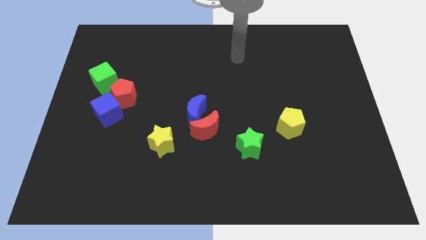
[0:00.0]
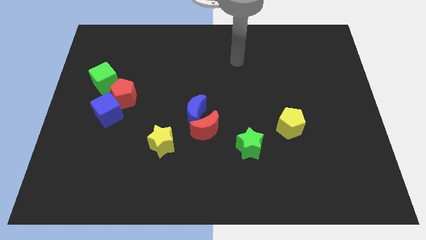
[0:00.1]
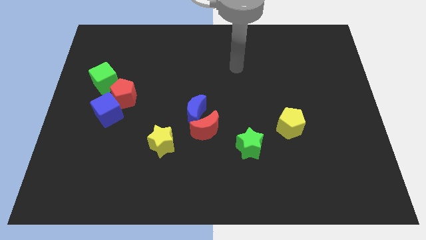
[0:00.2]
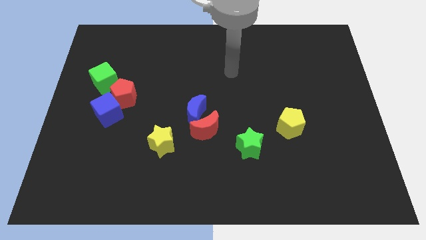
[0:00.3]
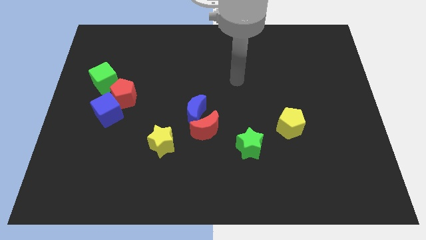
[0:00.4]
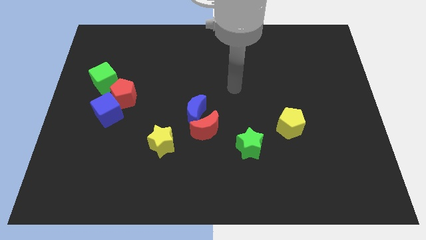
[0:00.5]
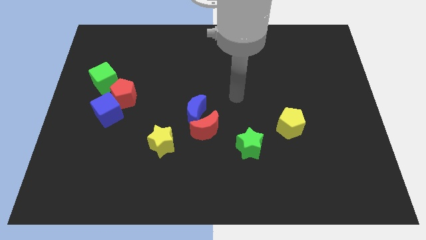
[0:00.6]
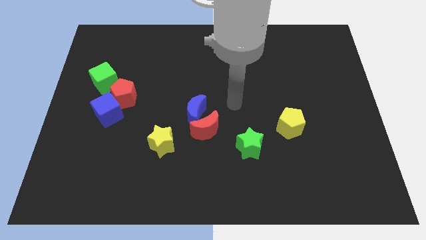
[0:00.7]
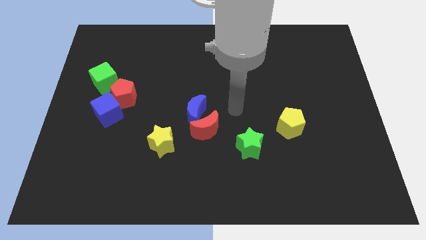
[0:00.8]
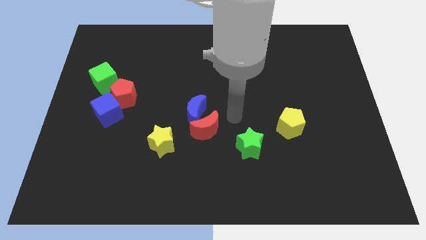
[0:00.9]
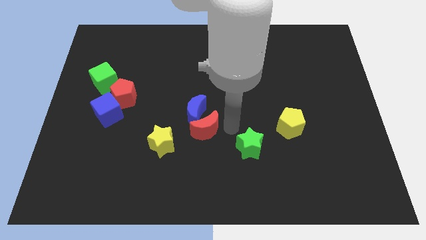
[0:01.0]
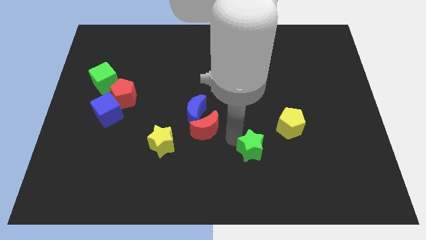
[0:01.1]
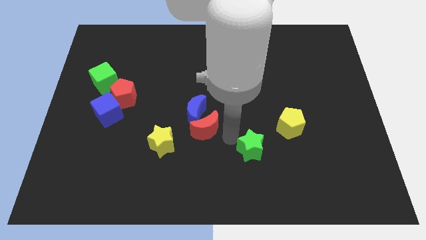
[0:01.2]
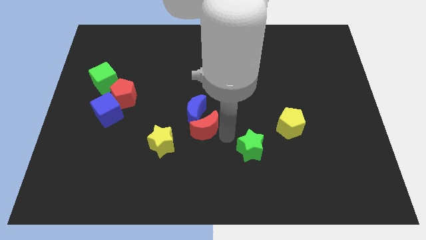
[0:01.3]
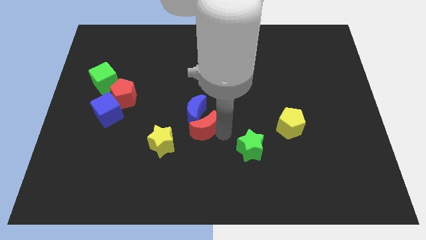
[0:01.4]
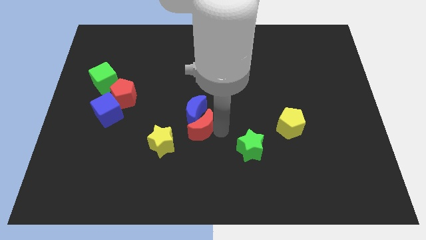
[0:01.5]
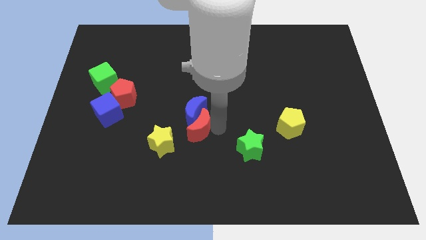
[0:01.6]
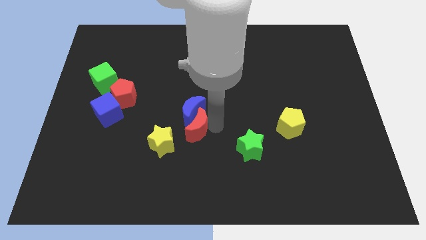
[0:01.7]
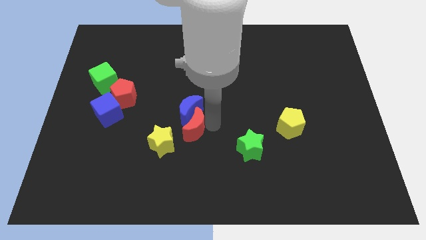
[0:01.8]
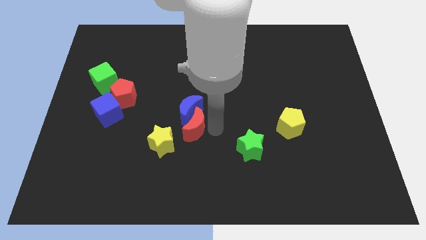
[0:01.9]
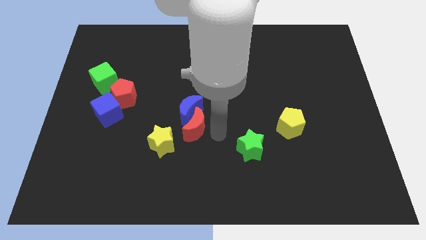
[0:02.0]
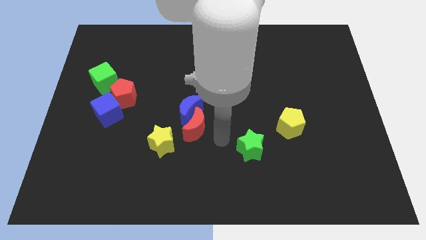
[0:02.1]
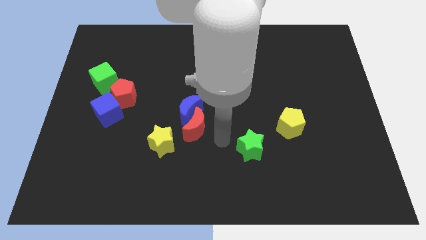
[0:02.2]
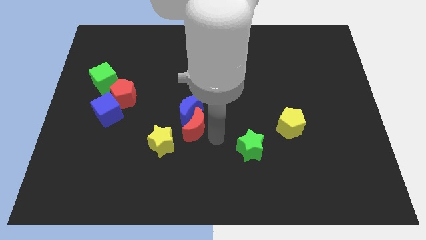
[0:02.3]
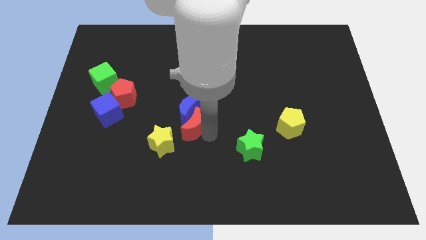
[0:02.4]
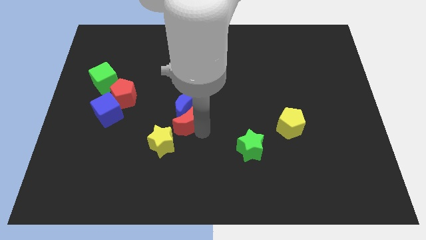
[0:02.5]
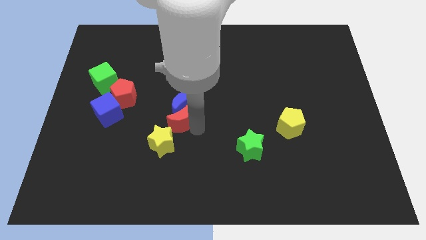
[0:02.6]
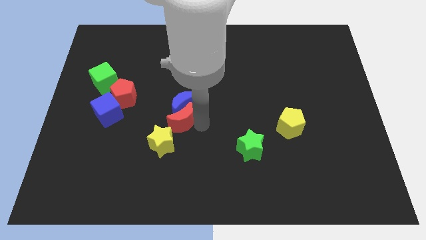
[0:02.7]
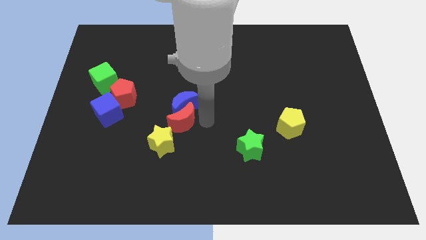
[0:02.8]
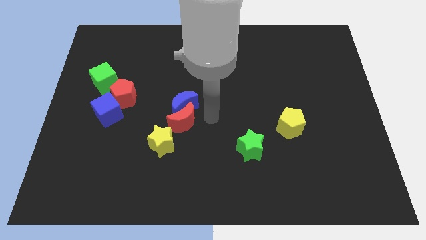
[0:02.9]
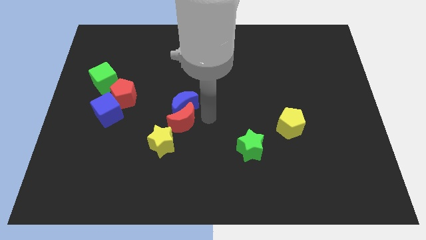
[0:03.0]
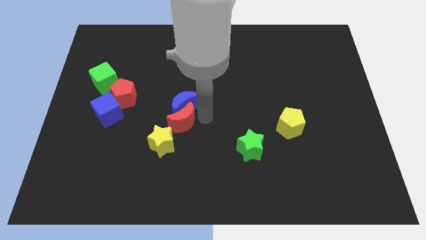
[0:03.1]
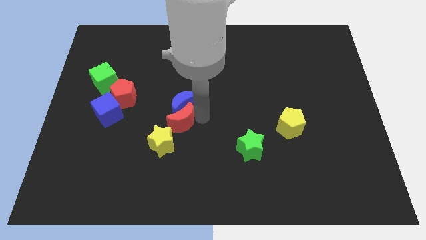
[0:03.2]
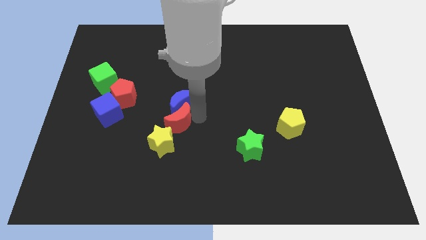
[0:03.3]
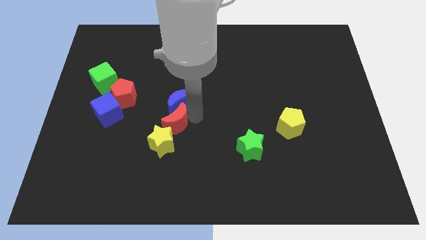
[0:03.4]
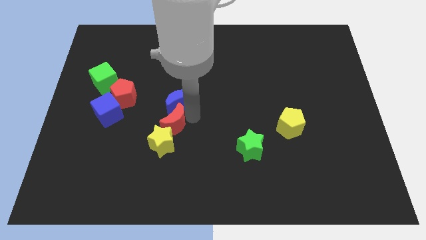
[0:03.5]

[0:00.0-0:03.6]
push the red moon left a little

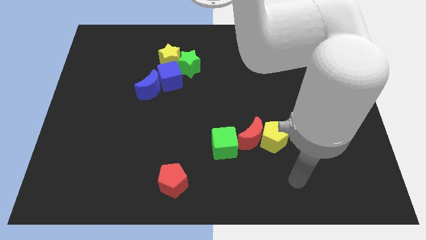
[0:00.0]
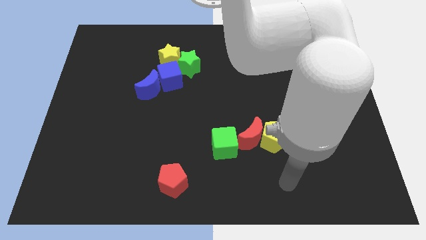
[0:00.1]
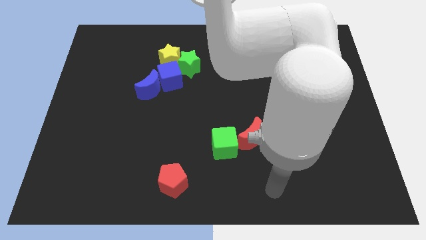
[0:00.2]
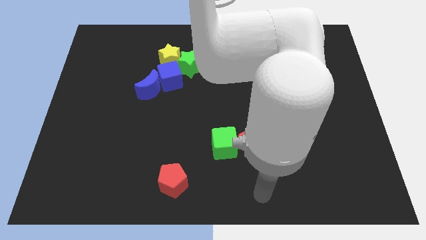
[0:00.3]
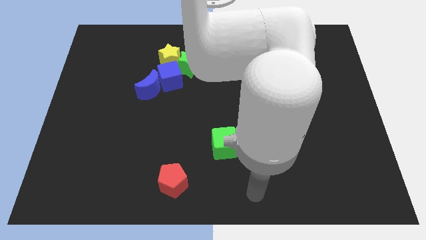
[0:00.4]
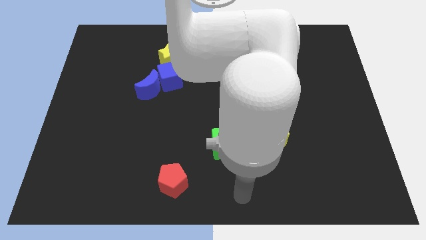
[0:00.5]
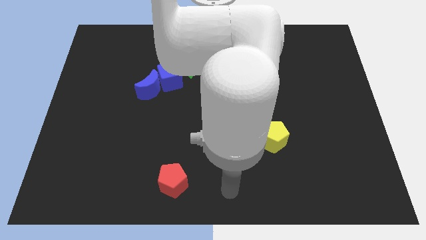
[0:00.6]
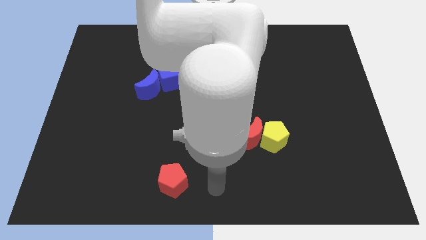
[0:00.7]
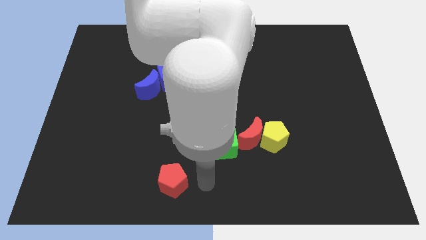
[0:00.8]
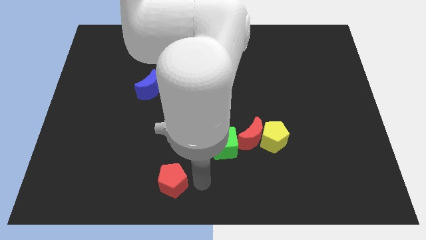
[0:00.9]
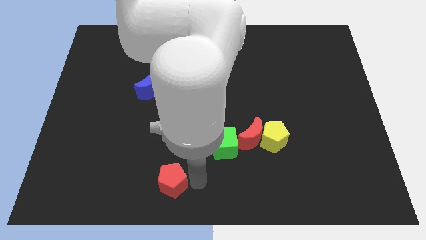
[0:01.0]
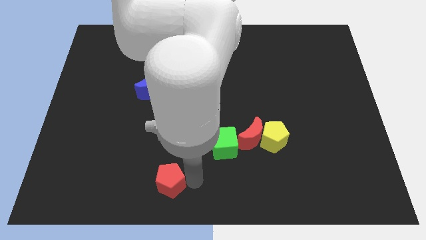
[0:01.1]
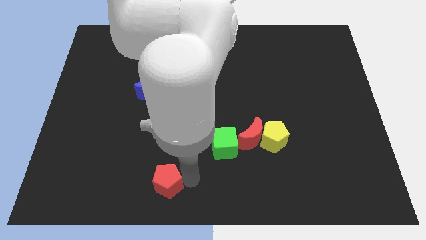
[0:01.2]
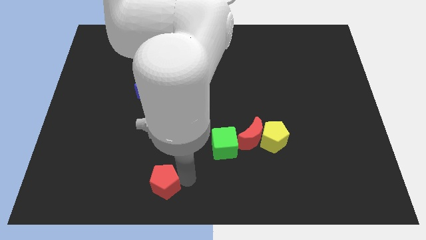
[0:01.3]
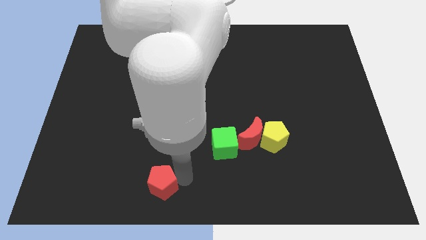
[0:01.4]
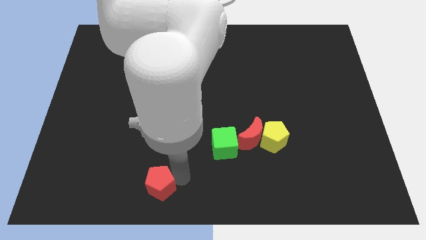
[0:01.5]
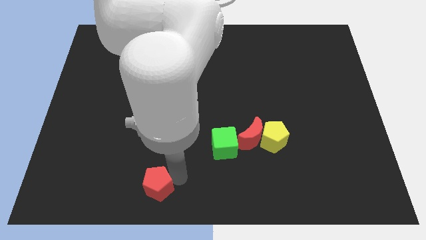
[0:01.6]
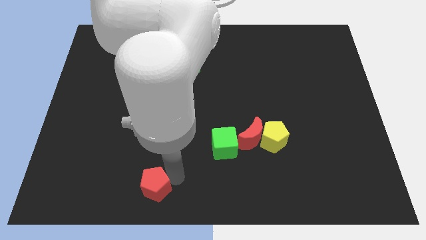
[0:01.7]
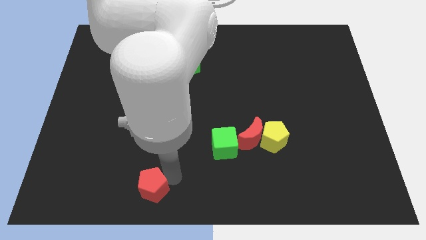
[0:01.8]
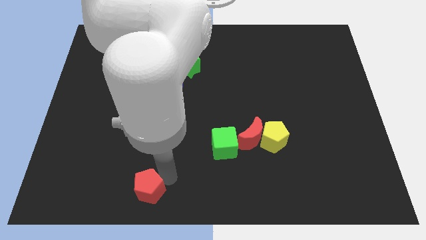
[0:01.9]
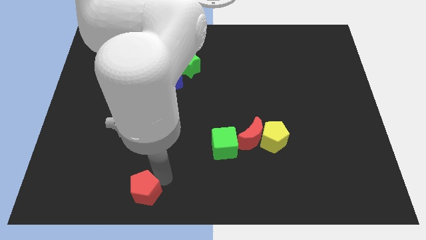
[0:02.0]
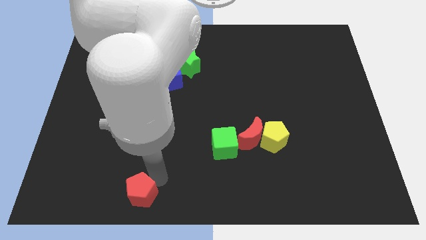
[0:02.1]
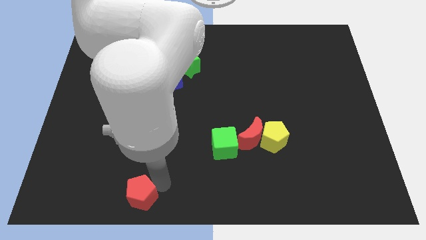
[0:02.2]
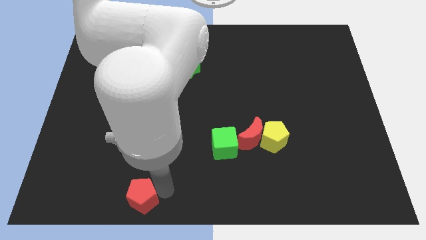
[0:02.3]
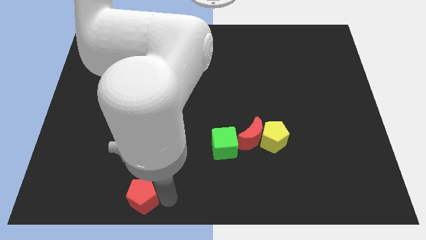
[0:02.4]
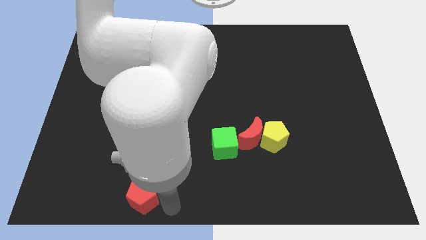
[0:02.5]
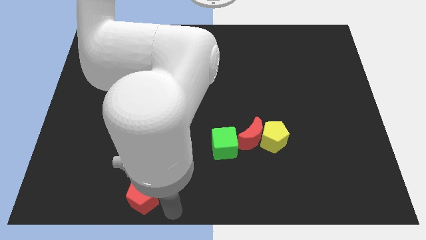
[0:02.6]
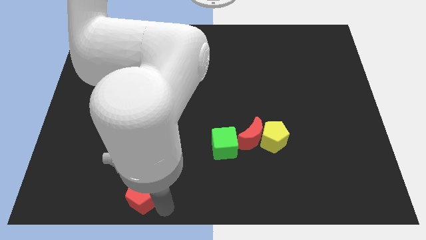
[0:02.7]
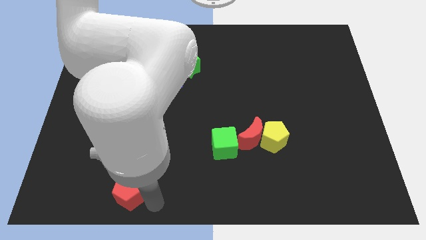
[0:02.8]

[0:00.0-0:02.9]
move the red pentagon to the left somewhat

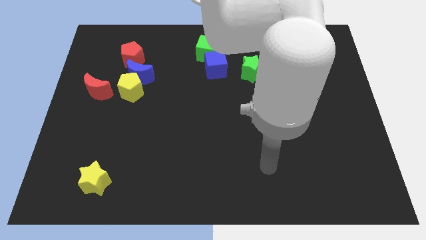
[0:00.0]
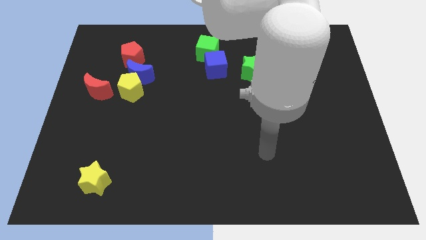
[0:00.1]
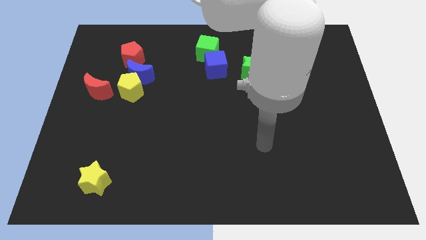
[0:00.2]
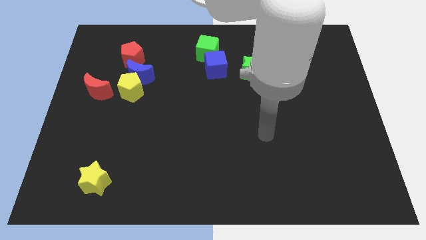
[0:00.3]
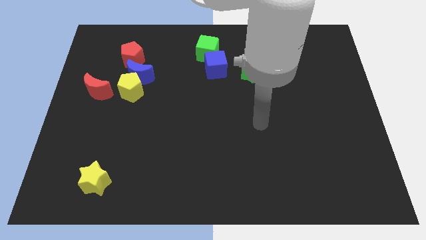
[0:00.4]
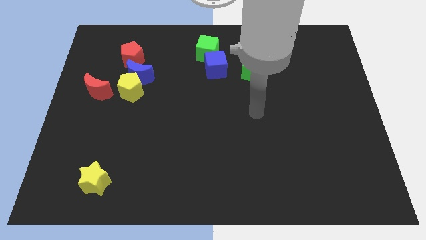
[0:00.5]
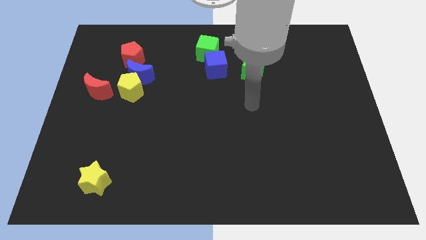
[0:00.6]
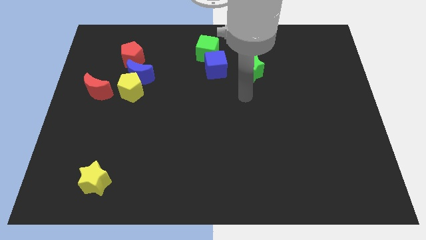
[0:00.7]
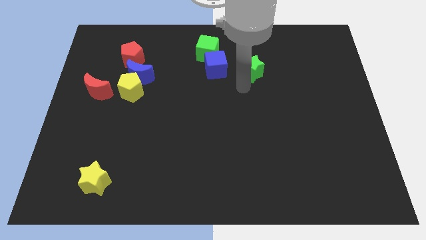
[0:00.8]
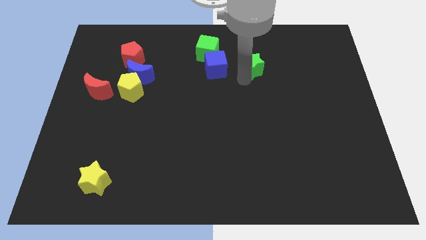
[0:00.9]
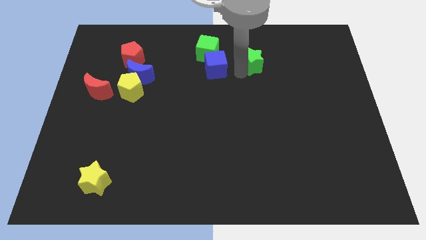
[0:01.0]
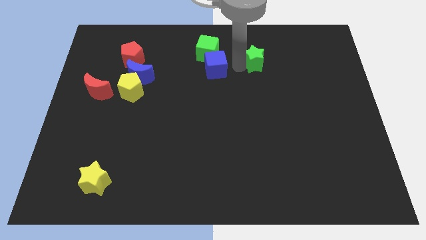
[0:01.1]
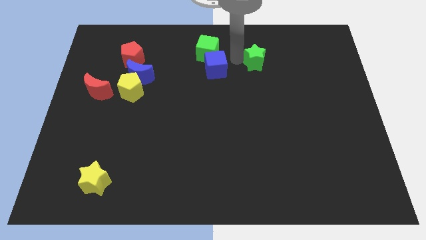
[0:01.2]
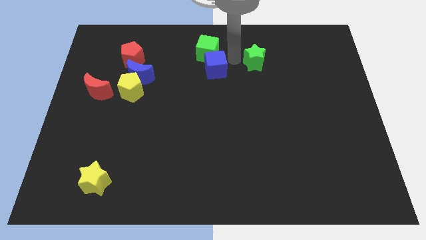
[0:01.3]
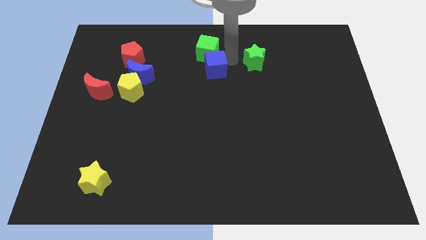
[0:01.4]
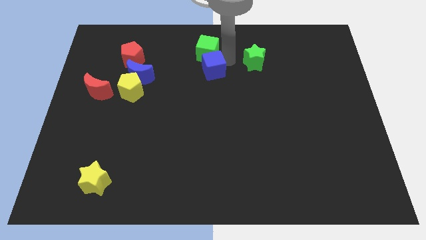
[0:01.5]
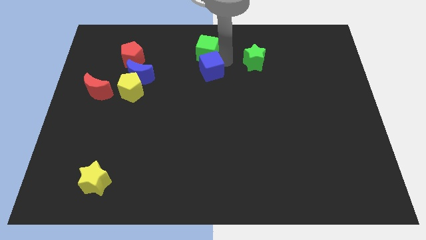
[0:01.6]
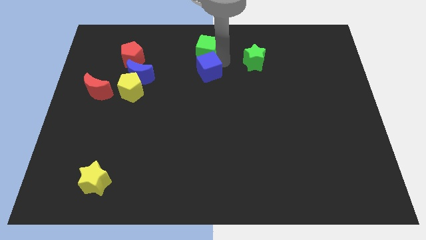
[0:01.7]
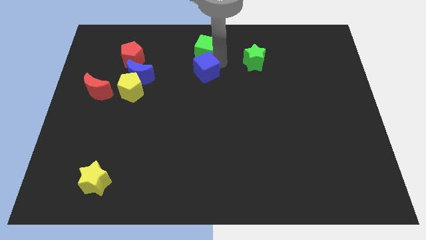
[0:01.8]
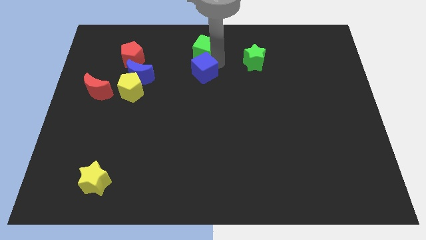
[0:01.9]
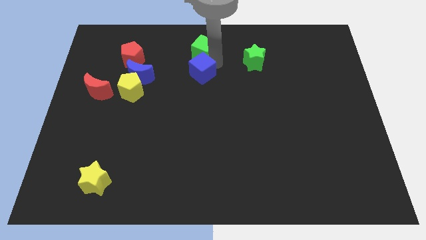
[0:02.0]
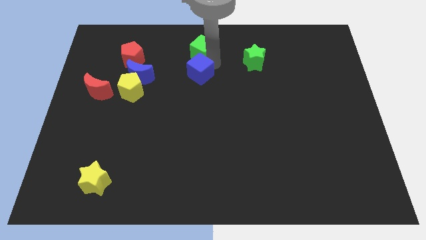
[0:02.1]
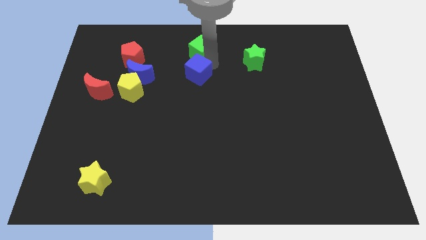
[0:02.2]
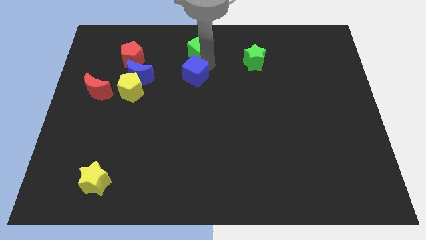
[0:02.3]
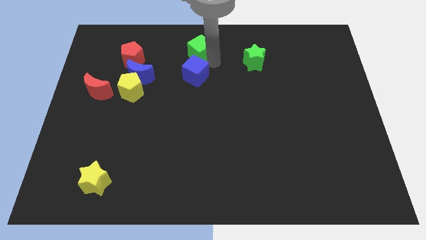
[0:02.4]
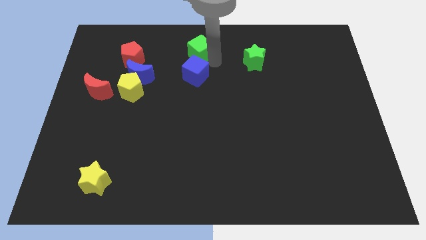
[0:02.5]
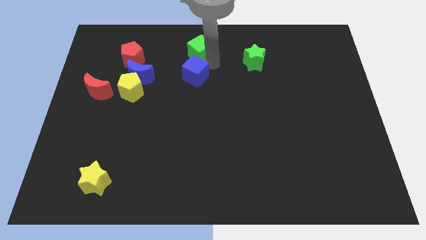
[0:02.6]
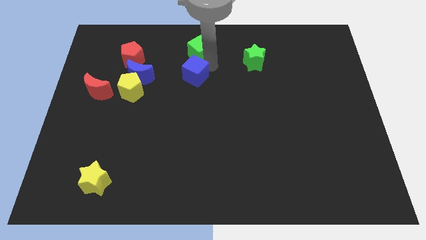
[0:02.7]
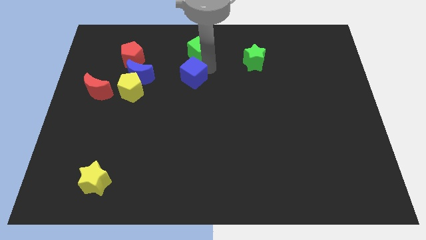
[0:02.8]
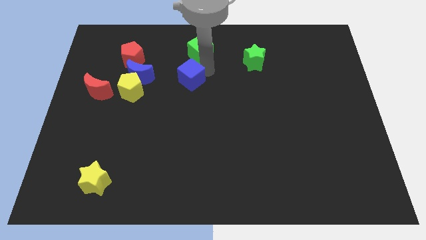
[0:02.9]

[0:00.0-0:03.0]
push the blue cube downwards and then to the left a little bit
